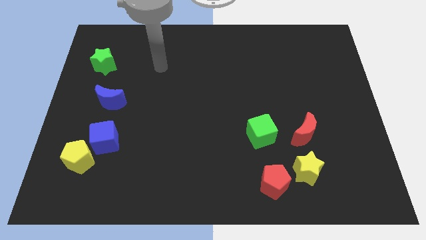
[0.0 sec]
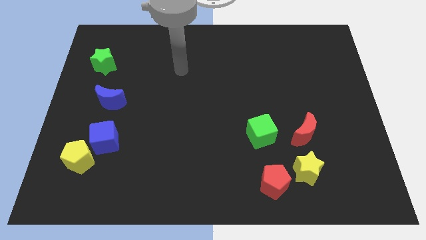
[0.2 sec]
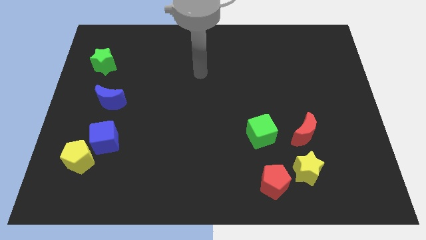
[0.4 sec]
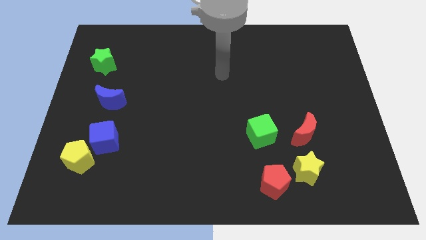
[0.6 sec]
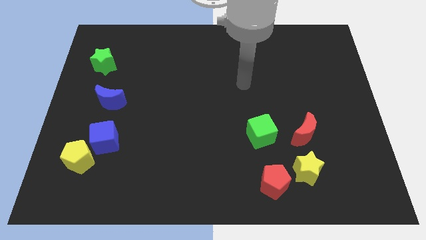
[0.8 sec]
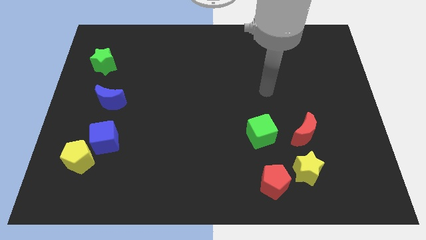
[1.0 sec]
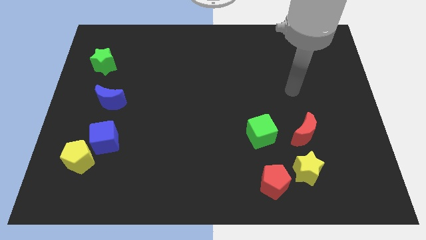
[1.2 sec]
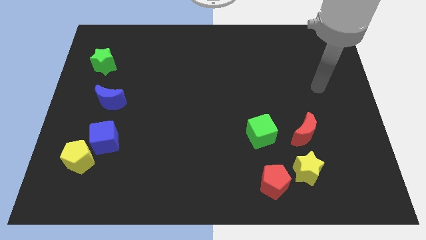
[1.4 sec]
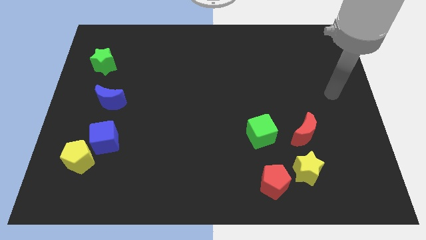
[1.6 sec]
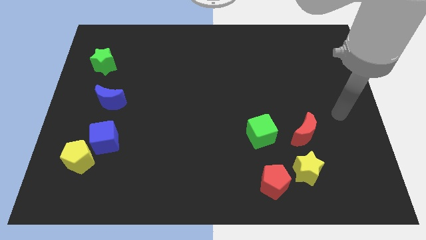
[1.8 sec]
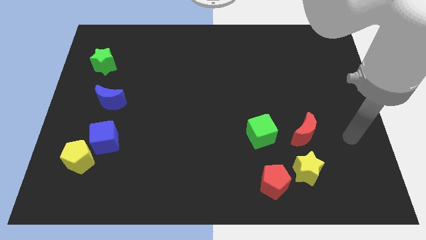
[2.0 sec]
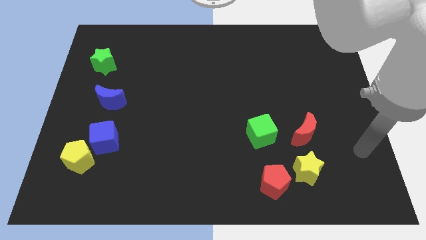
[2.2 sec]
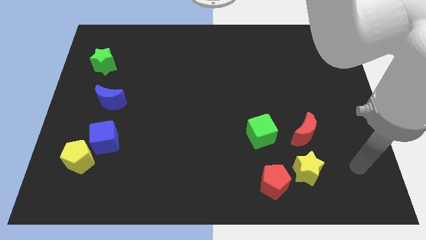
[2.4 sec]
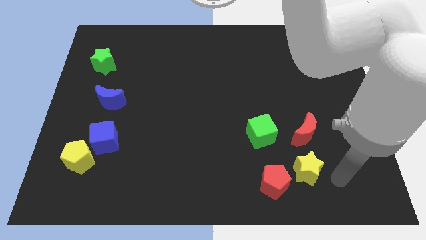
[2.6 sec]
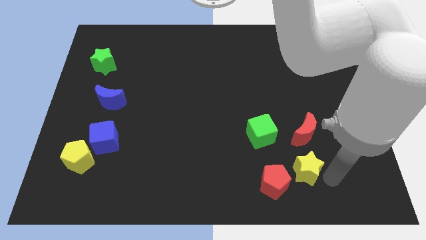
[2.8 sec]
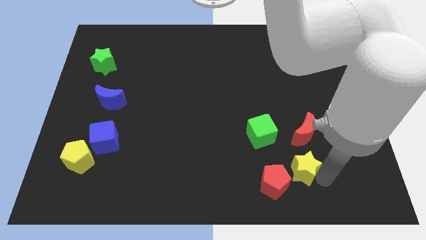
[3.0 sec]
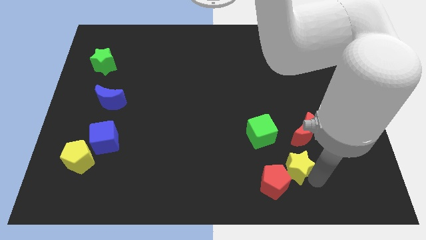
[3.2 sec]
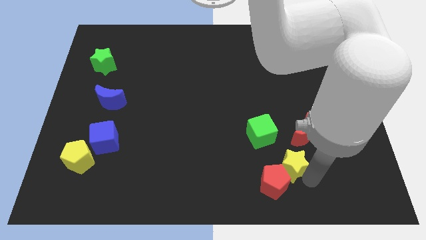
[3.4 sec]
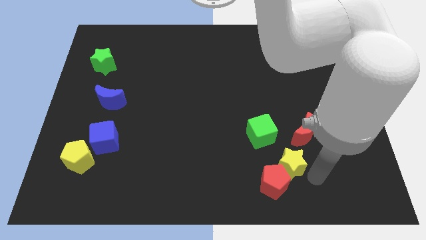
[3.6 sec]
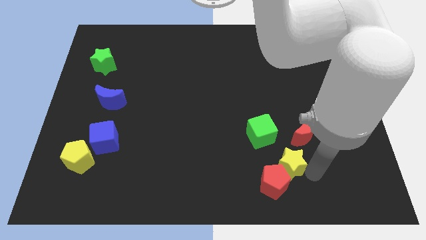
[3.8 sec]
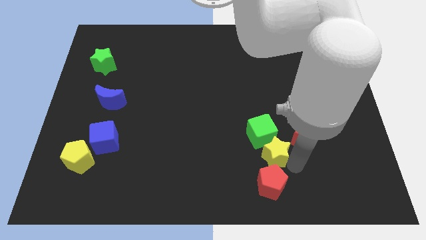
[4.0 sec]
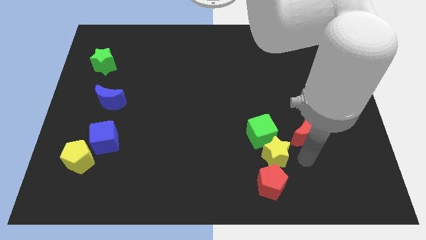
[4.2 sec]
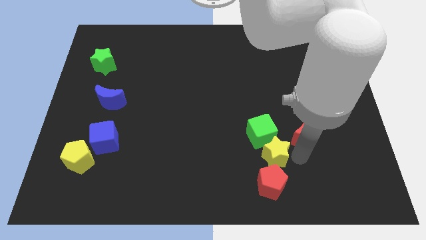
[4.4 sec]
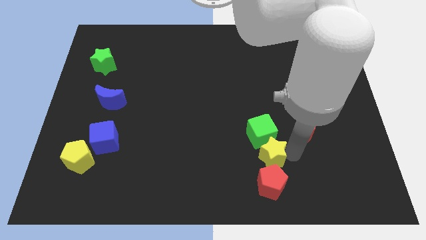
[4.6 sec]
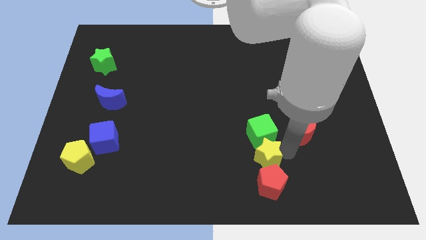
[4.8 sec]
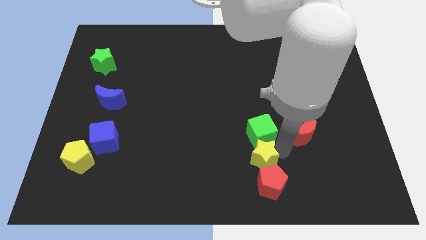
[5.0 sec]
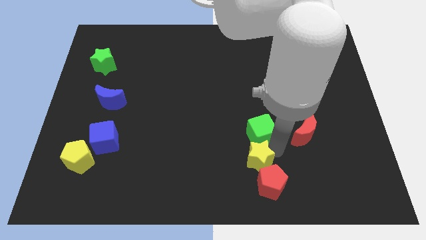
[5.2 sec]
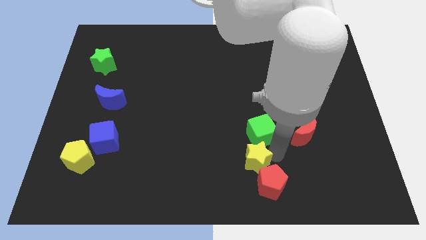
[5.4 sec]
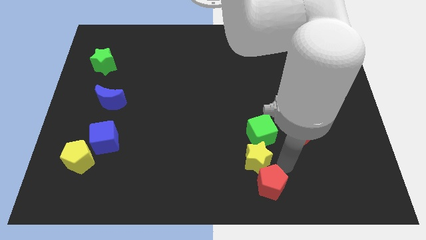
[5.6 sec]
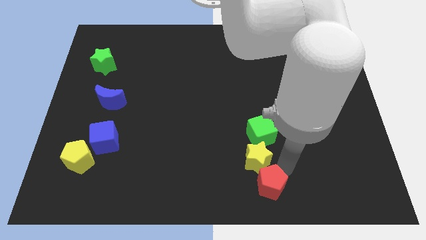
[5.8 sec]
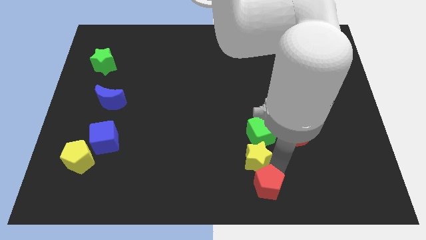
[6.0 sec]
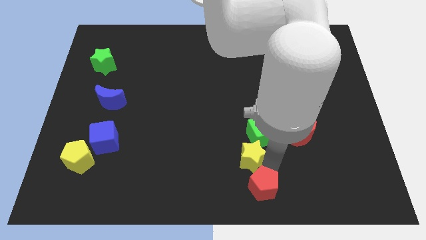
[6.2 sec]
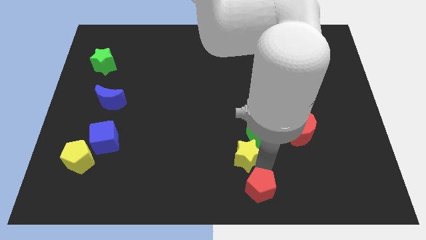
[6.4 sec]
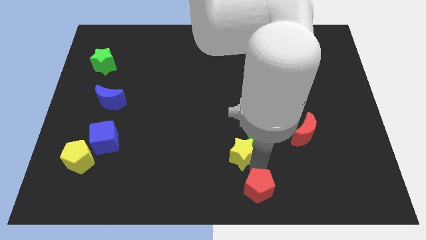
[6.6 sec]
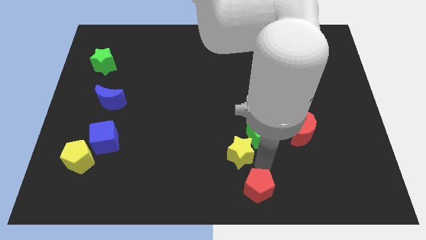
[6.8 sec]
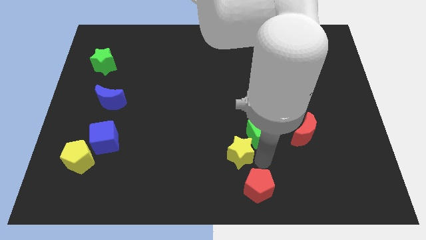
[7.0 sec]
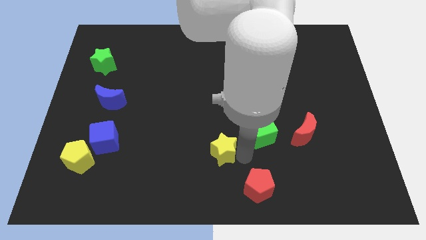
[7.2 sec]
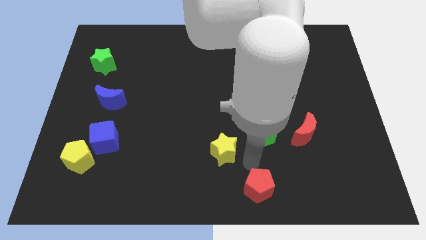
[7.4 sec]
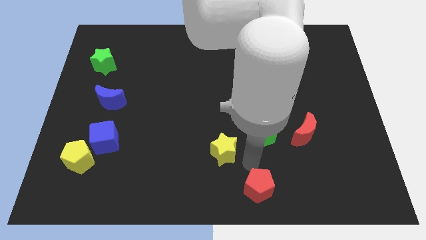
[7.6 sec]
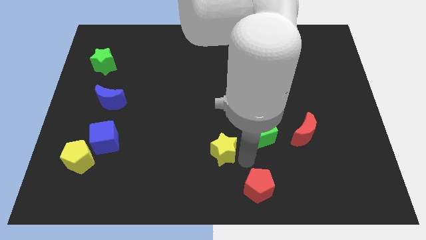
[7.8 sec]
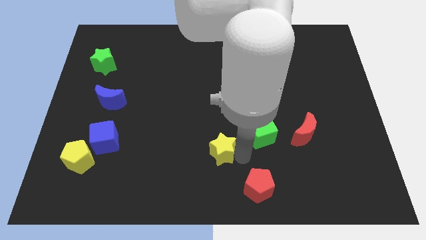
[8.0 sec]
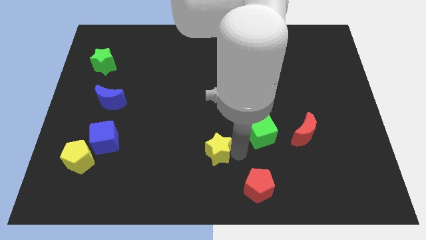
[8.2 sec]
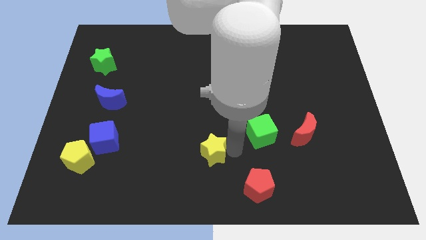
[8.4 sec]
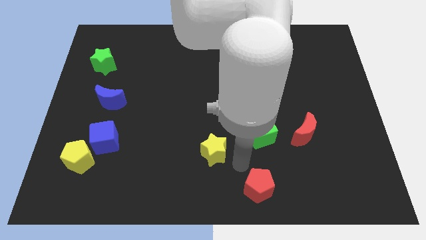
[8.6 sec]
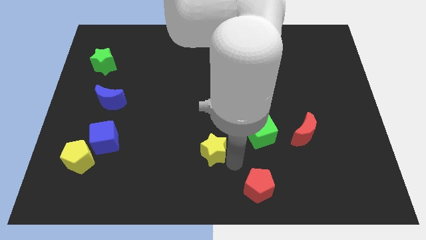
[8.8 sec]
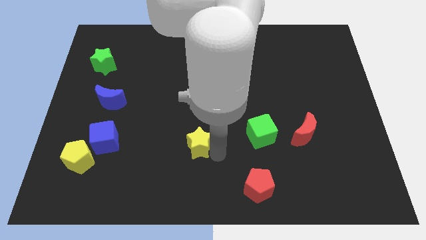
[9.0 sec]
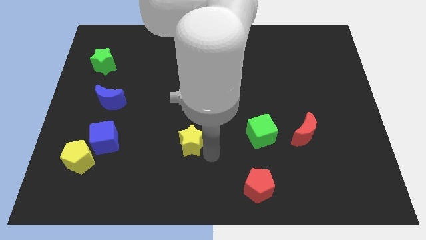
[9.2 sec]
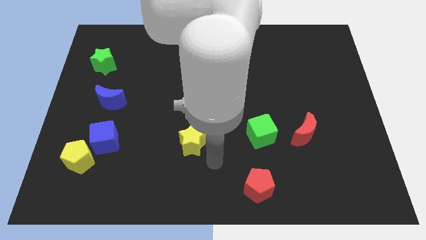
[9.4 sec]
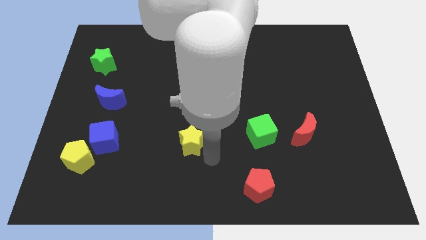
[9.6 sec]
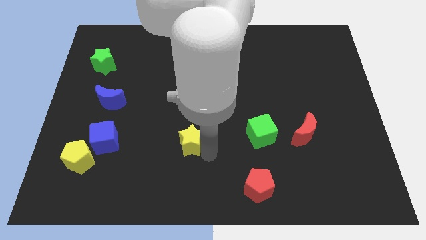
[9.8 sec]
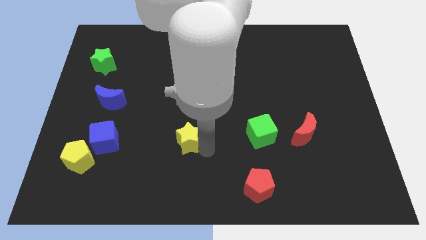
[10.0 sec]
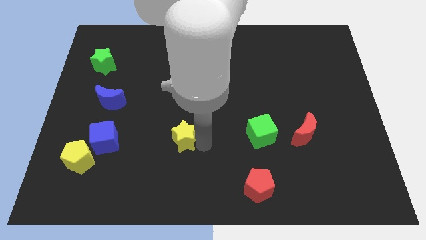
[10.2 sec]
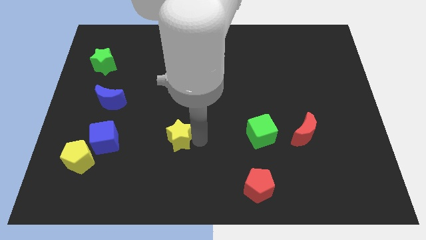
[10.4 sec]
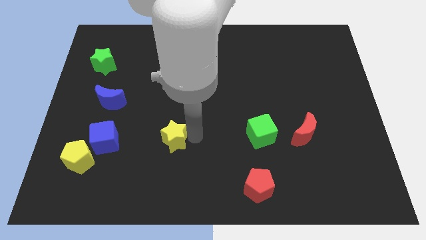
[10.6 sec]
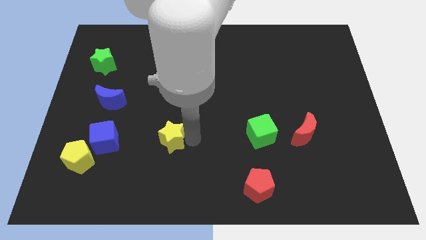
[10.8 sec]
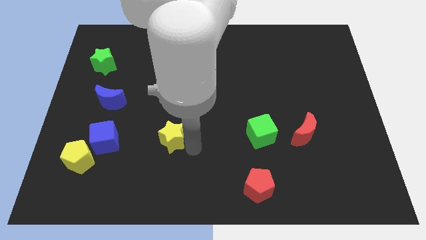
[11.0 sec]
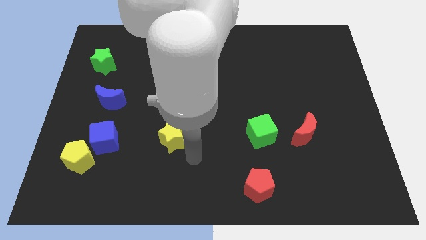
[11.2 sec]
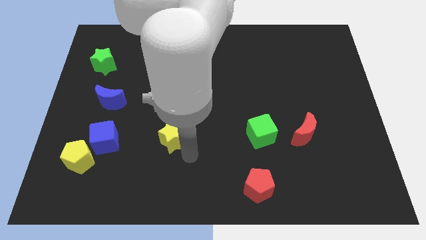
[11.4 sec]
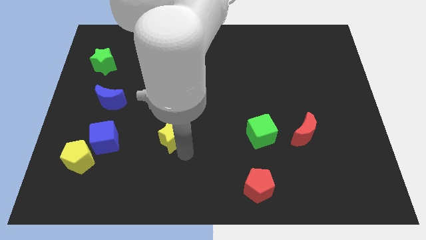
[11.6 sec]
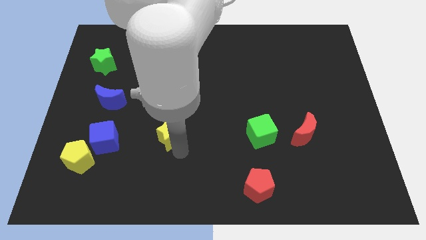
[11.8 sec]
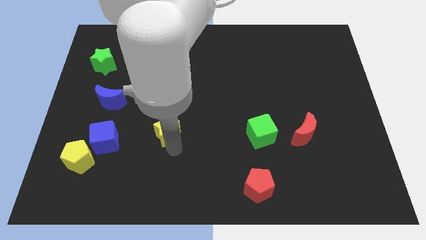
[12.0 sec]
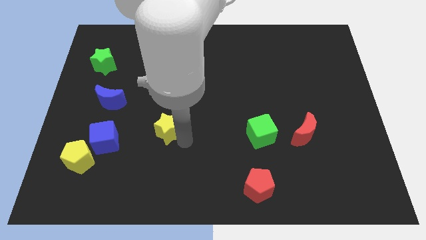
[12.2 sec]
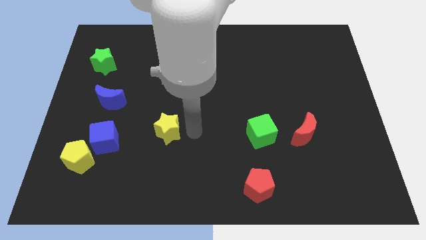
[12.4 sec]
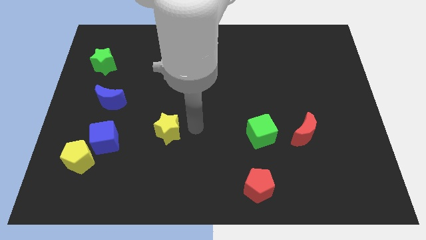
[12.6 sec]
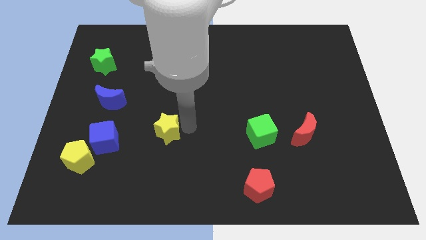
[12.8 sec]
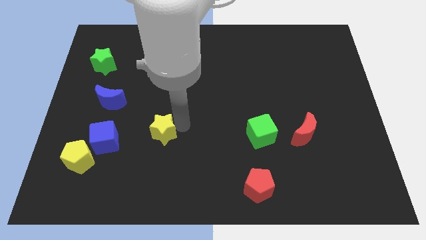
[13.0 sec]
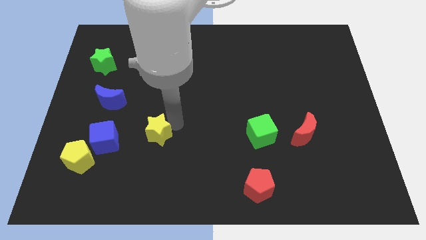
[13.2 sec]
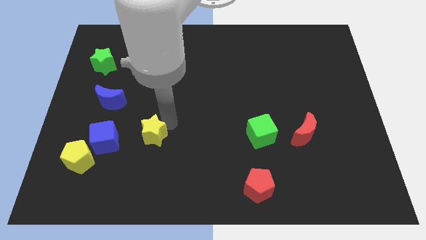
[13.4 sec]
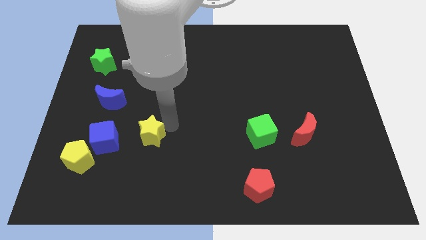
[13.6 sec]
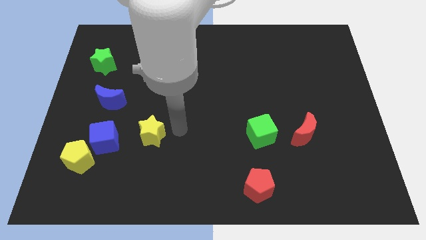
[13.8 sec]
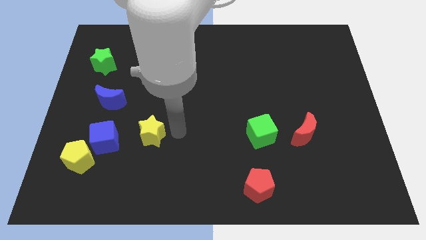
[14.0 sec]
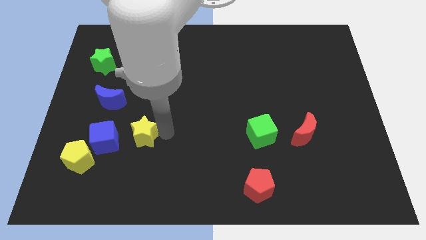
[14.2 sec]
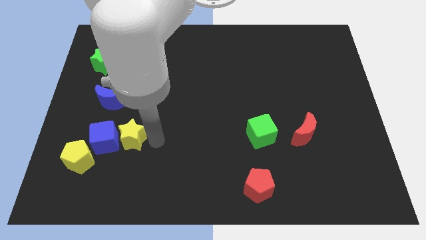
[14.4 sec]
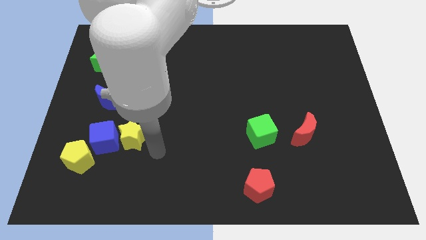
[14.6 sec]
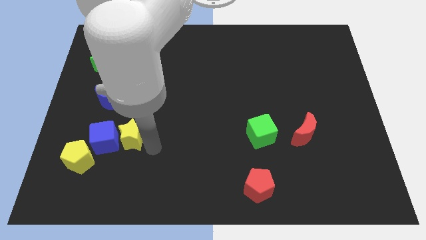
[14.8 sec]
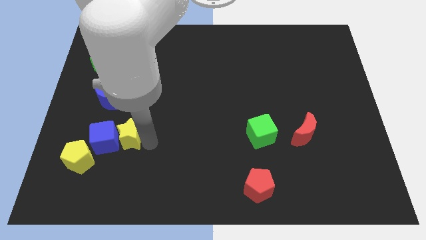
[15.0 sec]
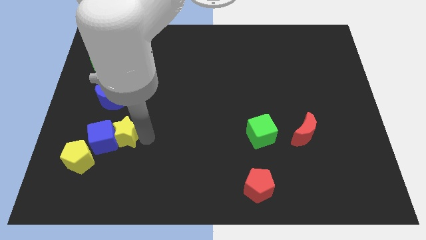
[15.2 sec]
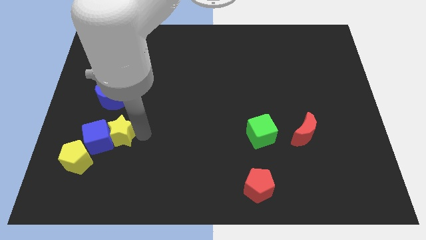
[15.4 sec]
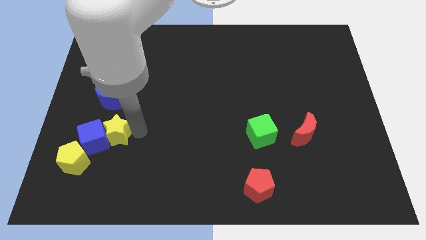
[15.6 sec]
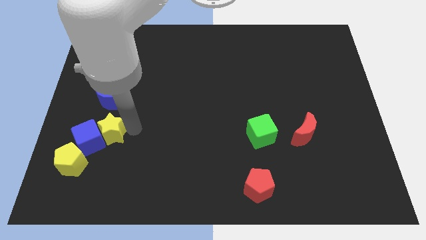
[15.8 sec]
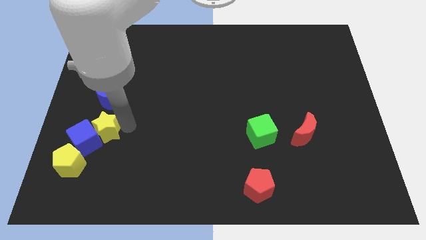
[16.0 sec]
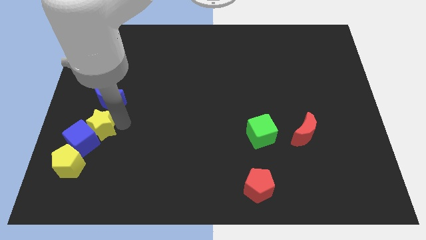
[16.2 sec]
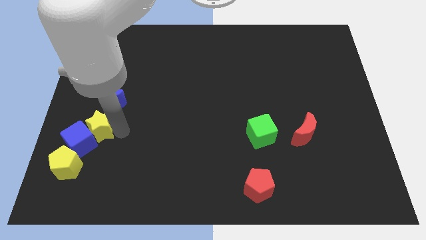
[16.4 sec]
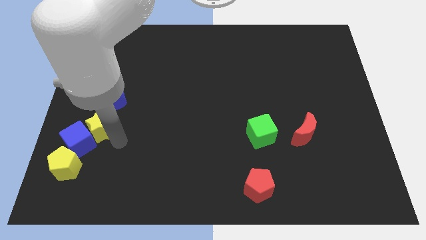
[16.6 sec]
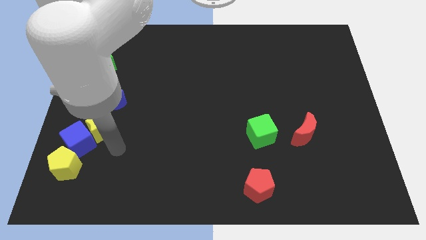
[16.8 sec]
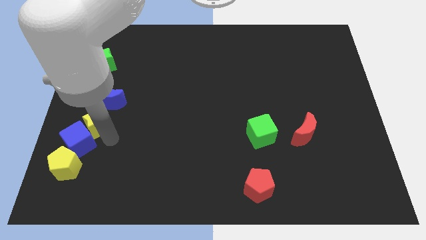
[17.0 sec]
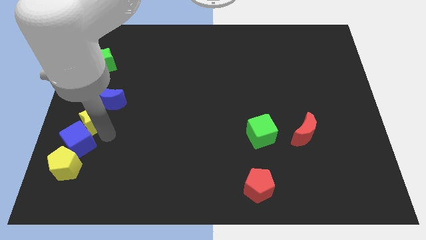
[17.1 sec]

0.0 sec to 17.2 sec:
move the yellow star to the left side
